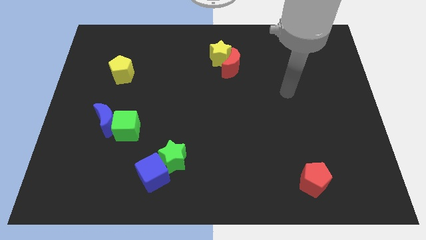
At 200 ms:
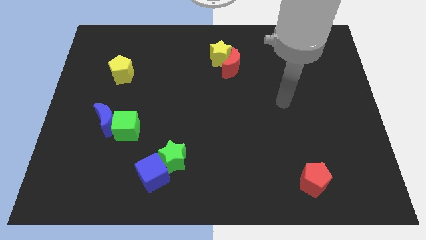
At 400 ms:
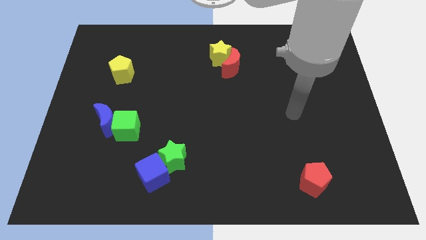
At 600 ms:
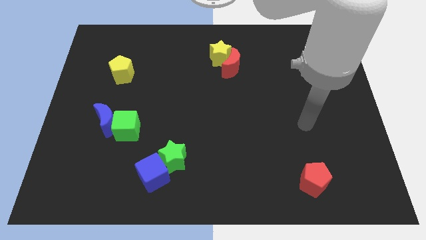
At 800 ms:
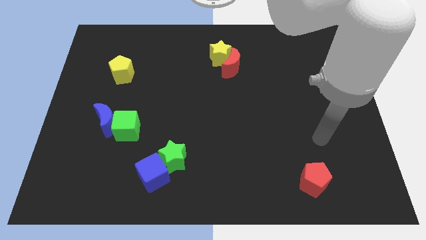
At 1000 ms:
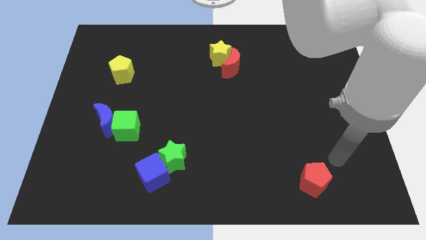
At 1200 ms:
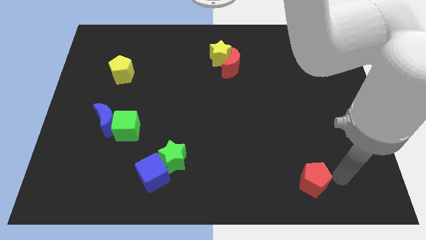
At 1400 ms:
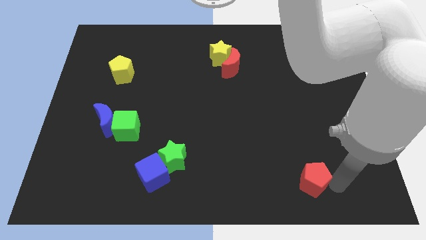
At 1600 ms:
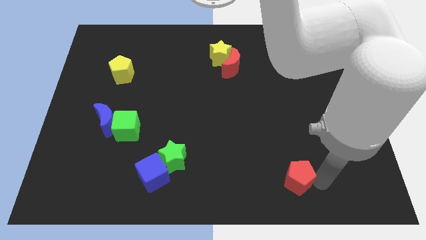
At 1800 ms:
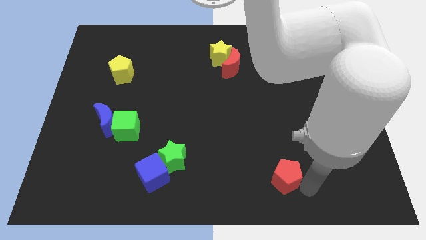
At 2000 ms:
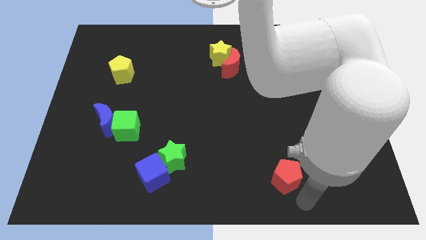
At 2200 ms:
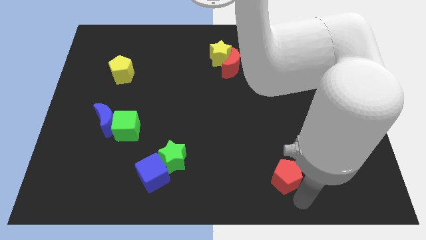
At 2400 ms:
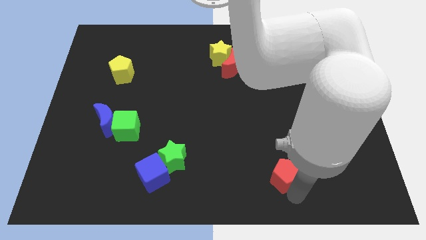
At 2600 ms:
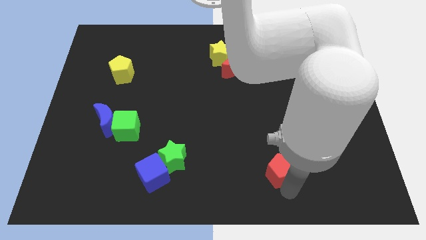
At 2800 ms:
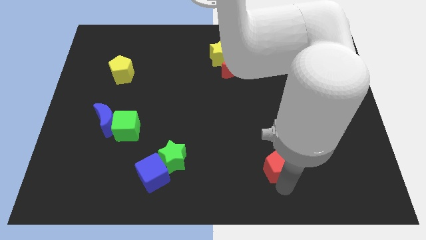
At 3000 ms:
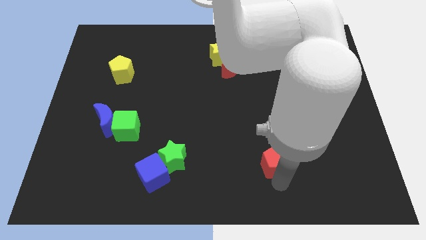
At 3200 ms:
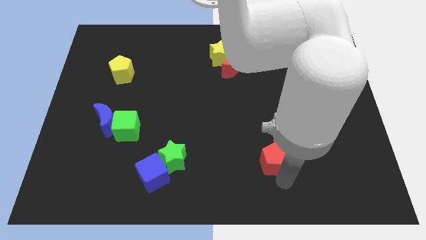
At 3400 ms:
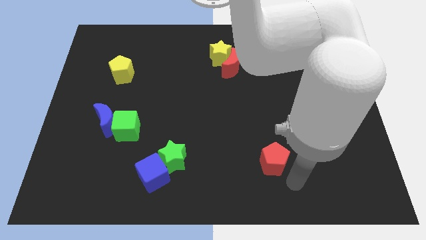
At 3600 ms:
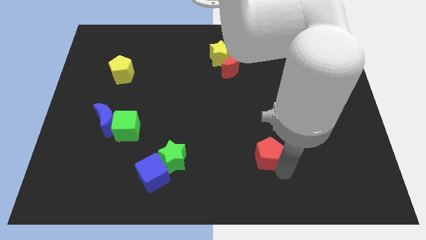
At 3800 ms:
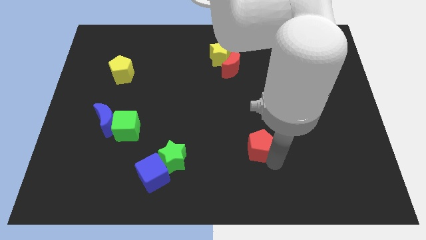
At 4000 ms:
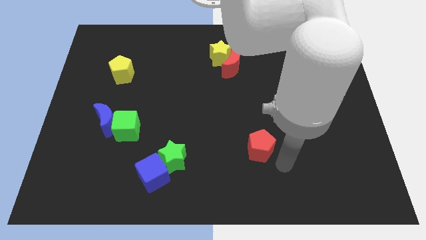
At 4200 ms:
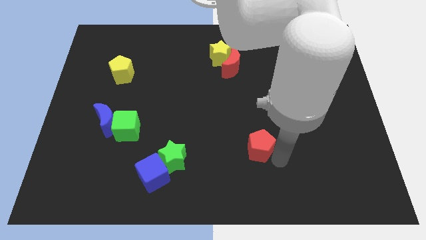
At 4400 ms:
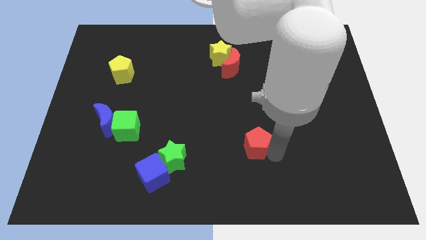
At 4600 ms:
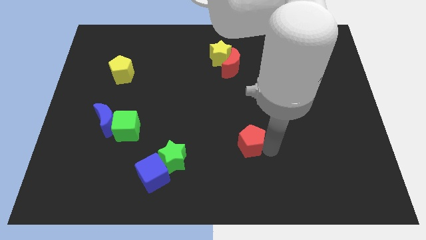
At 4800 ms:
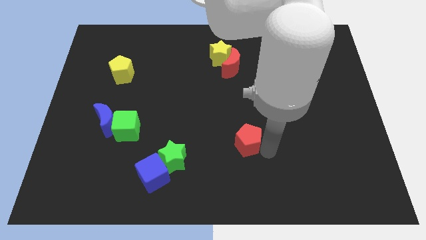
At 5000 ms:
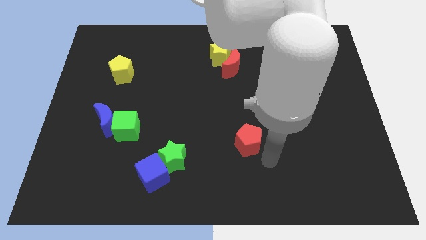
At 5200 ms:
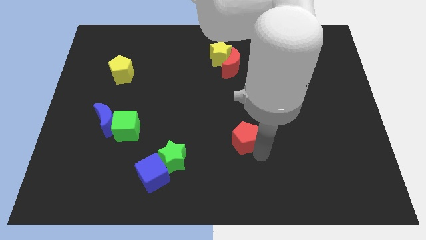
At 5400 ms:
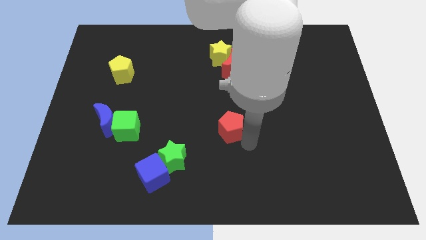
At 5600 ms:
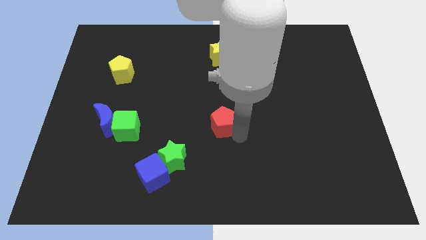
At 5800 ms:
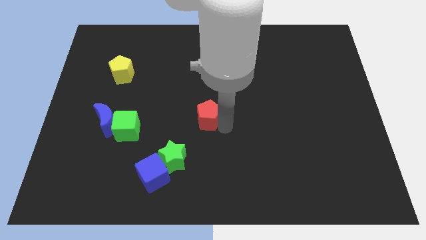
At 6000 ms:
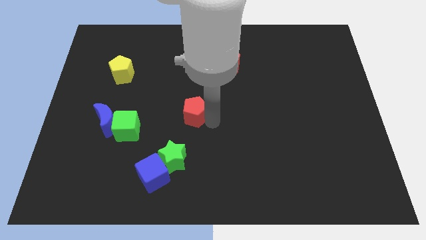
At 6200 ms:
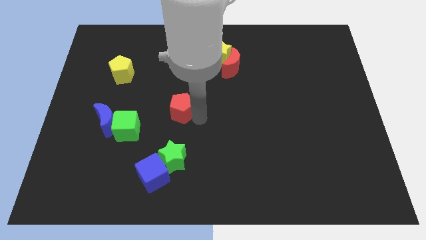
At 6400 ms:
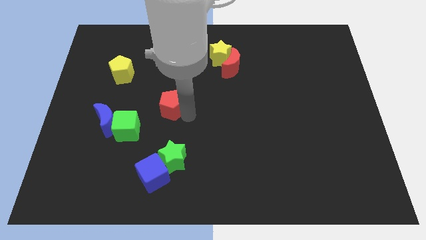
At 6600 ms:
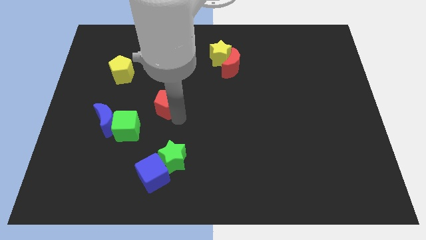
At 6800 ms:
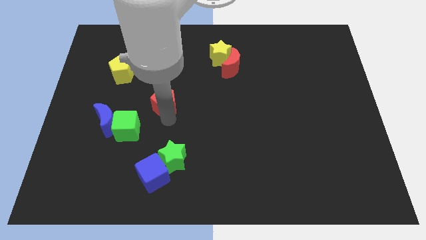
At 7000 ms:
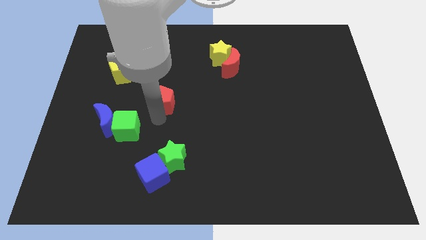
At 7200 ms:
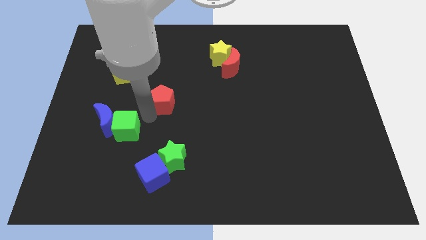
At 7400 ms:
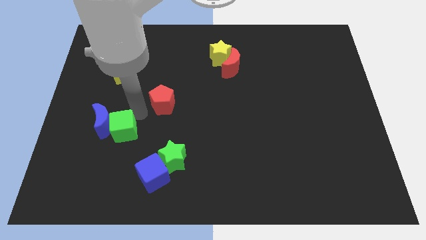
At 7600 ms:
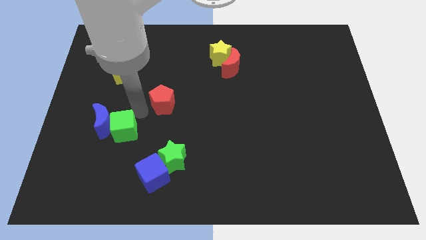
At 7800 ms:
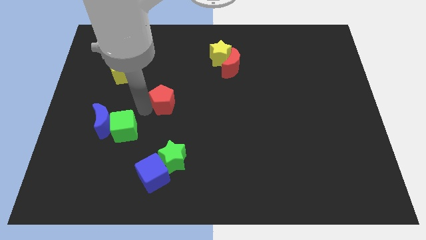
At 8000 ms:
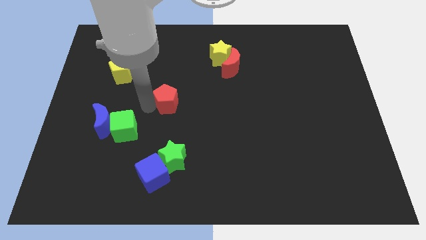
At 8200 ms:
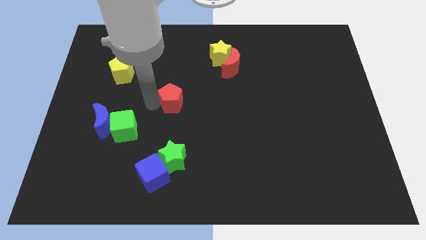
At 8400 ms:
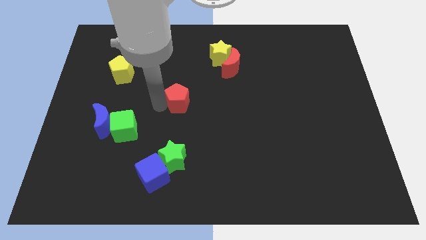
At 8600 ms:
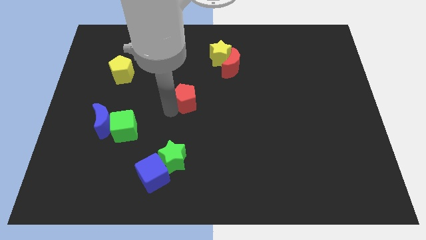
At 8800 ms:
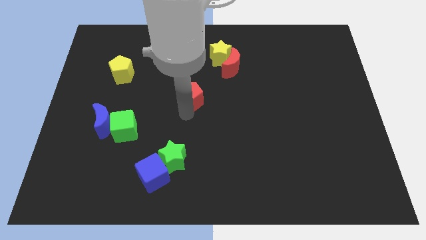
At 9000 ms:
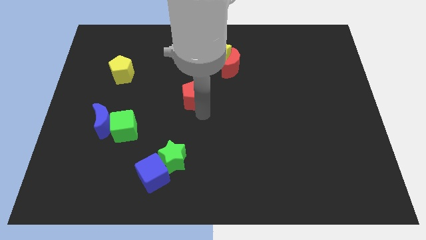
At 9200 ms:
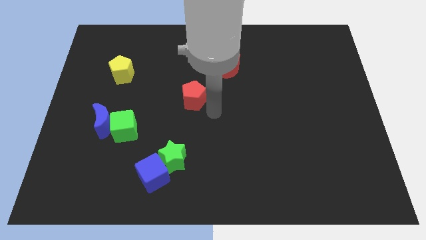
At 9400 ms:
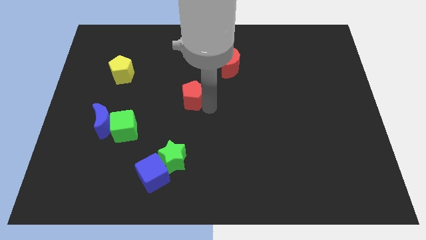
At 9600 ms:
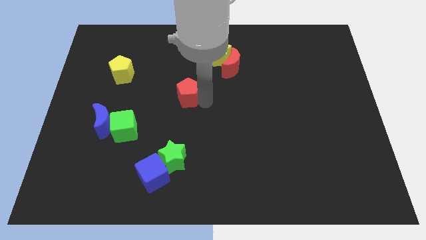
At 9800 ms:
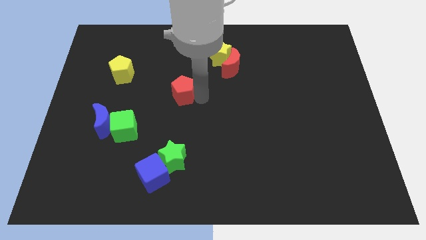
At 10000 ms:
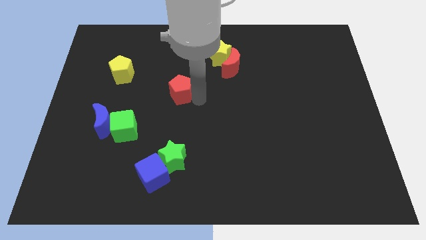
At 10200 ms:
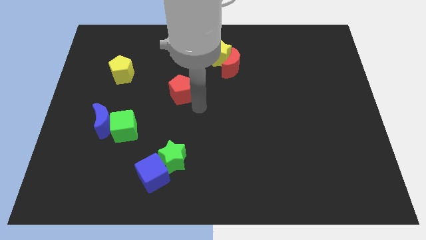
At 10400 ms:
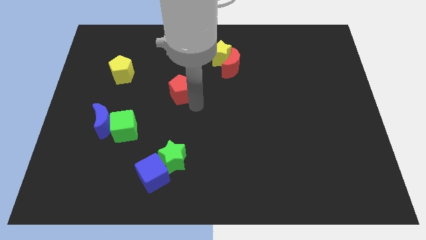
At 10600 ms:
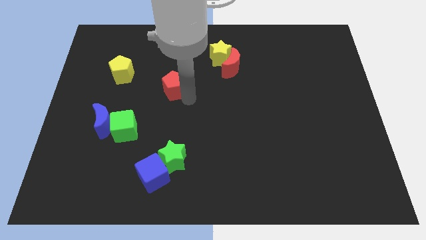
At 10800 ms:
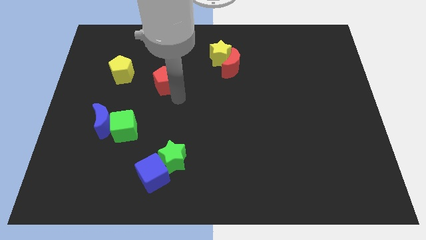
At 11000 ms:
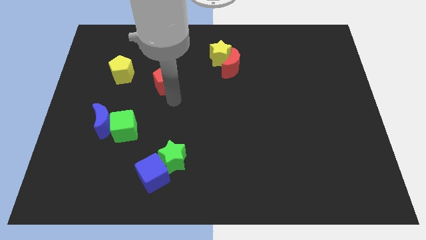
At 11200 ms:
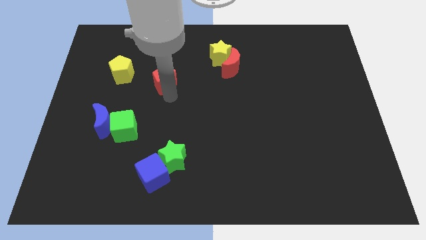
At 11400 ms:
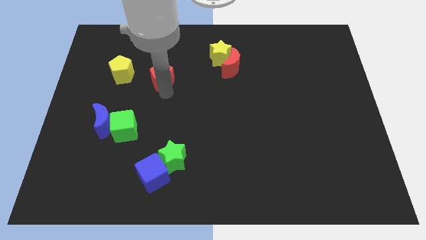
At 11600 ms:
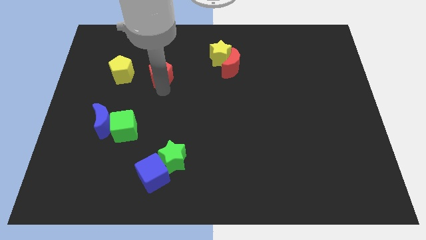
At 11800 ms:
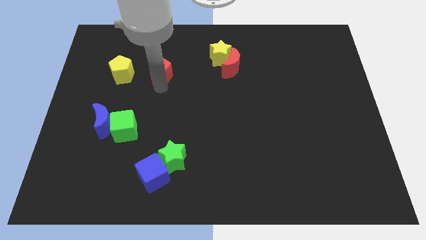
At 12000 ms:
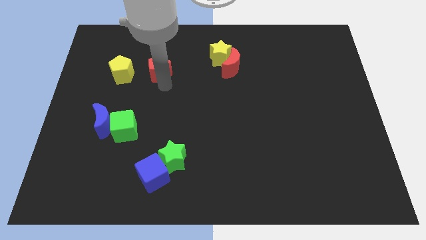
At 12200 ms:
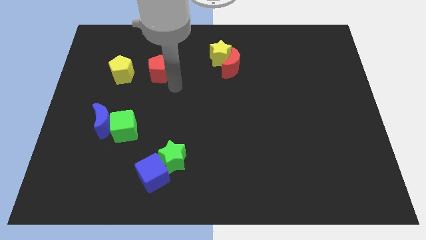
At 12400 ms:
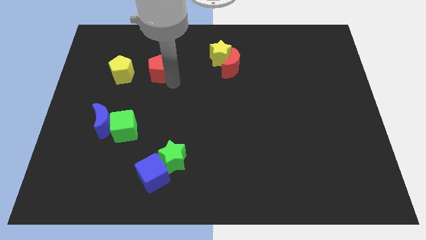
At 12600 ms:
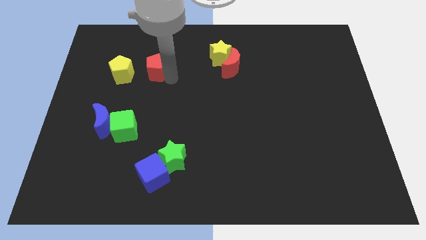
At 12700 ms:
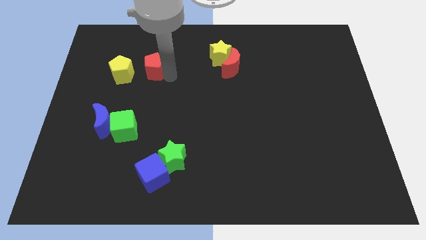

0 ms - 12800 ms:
move the red pentagon diagonally up and to the right of the yellow pentagon

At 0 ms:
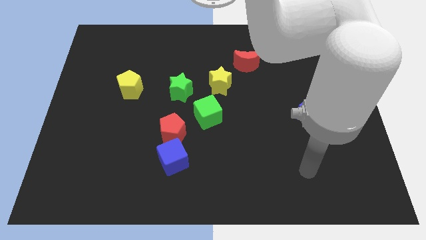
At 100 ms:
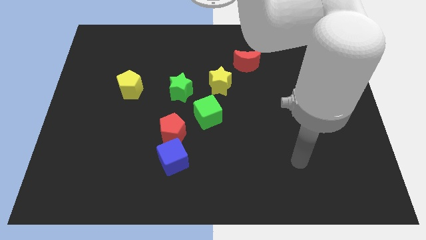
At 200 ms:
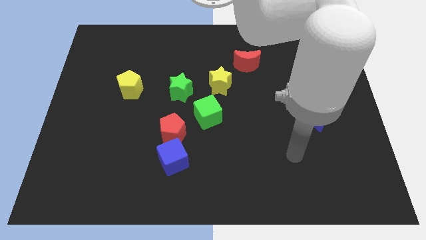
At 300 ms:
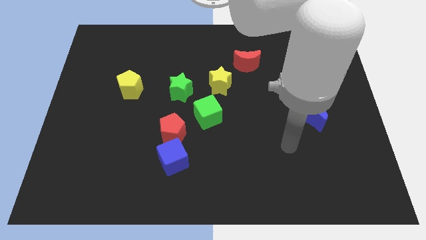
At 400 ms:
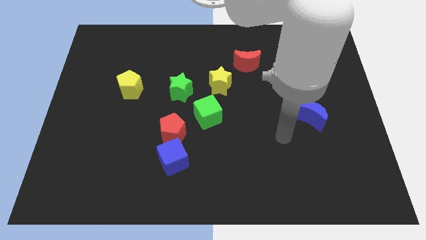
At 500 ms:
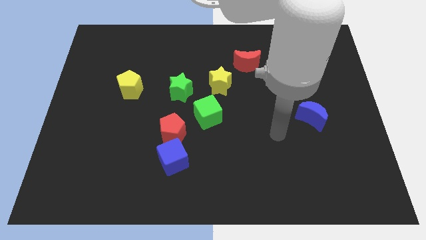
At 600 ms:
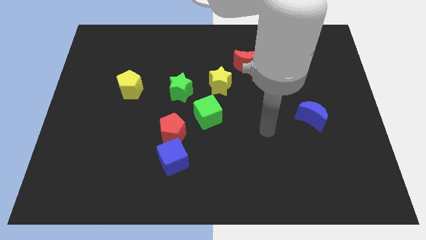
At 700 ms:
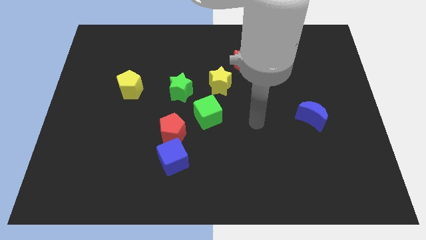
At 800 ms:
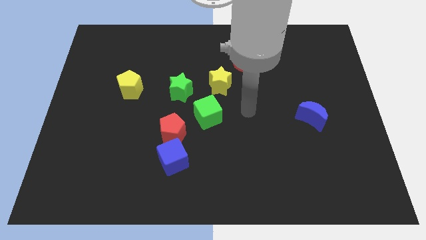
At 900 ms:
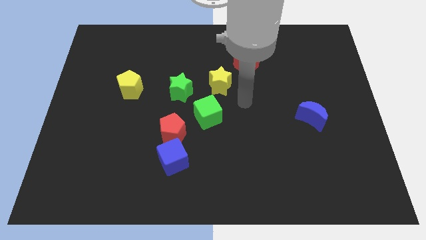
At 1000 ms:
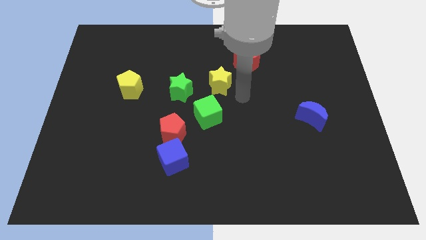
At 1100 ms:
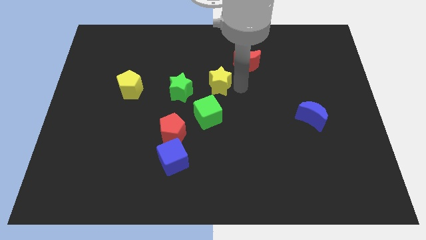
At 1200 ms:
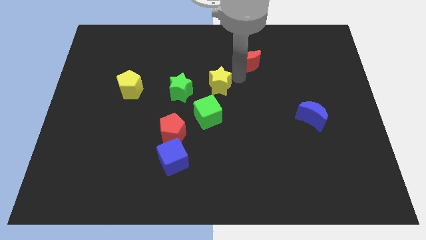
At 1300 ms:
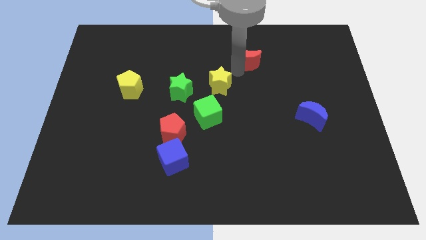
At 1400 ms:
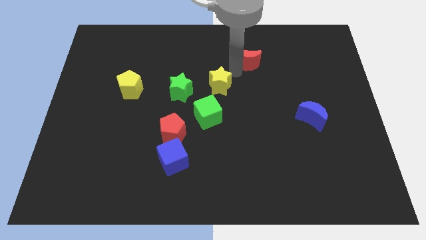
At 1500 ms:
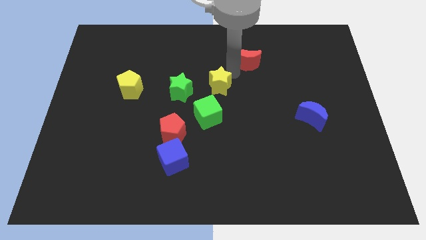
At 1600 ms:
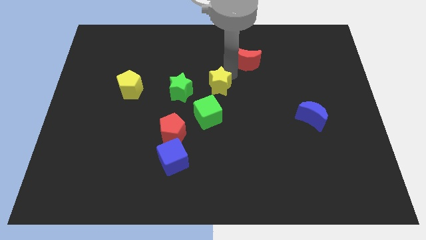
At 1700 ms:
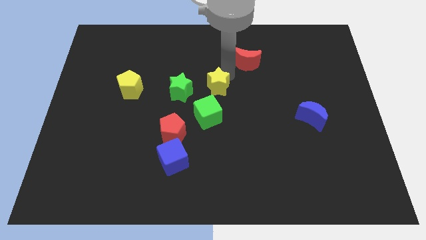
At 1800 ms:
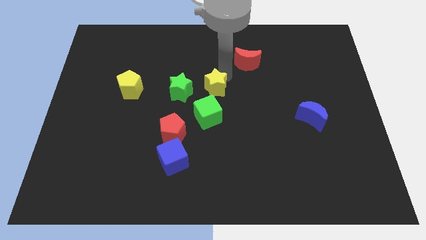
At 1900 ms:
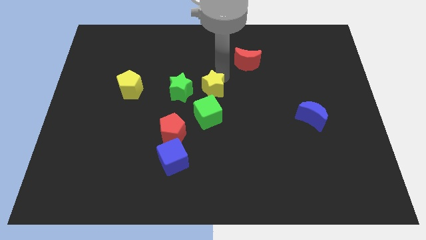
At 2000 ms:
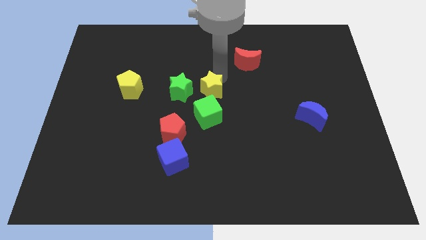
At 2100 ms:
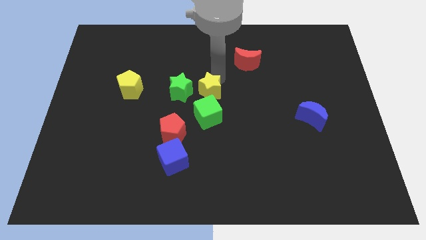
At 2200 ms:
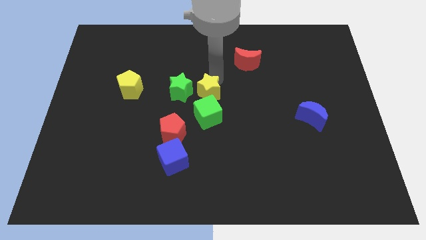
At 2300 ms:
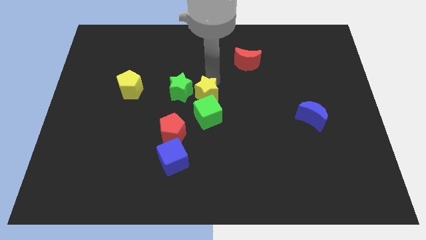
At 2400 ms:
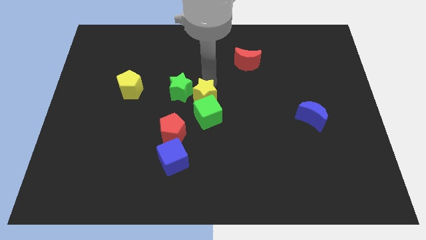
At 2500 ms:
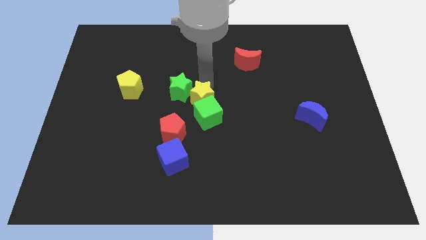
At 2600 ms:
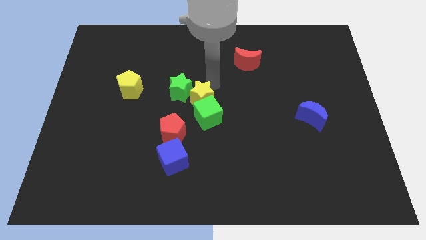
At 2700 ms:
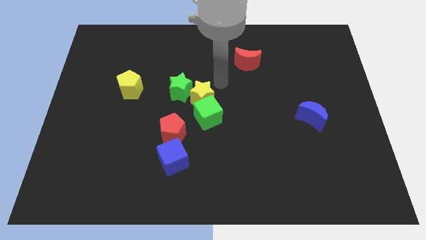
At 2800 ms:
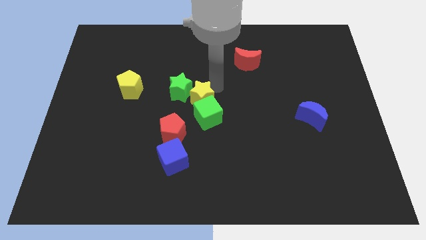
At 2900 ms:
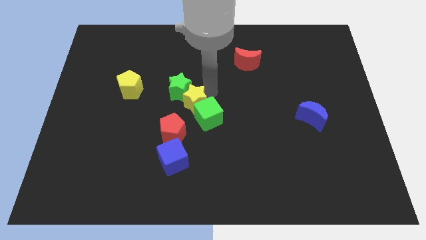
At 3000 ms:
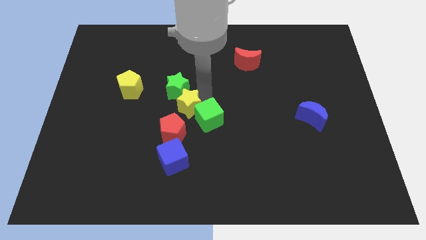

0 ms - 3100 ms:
slide the yellow star to the top side of the blue cube
